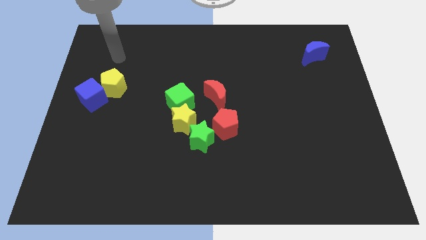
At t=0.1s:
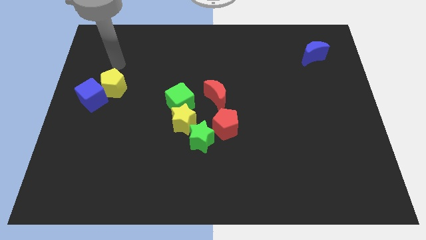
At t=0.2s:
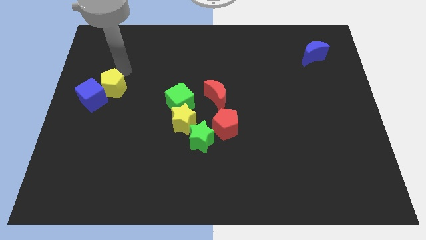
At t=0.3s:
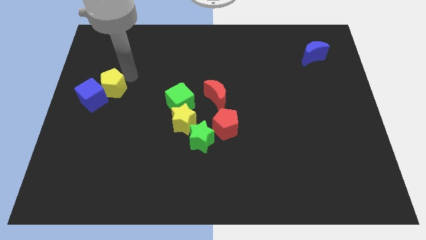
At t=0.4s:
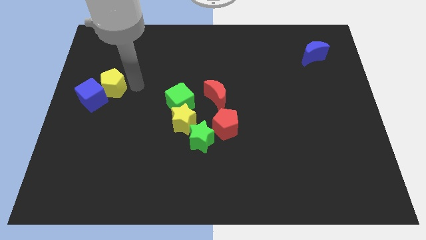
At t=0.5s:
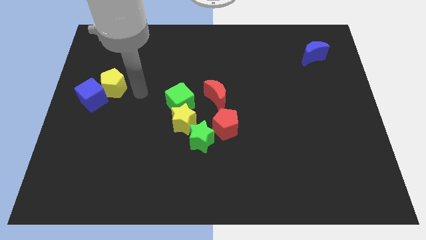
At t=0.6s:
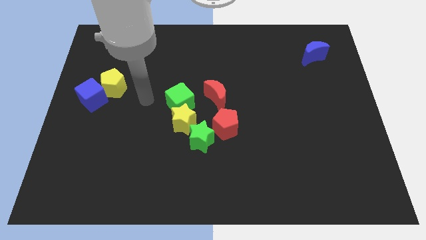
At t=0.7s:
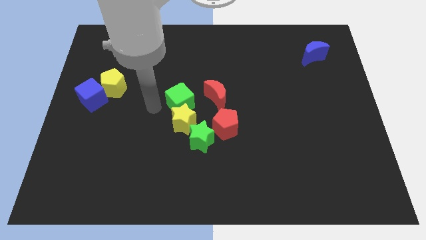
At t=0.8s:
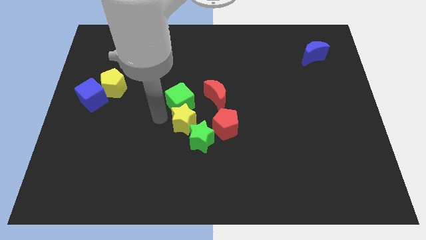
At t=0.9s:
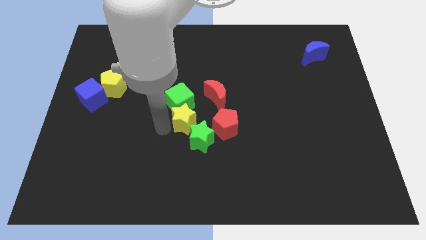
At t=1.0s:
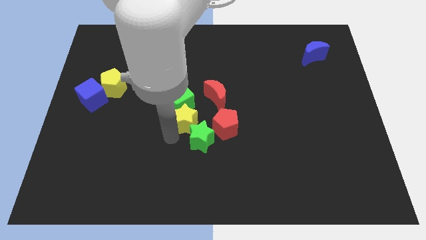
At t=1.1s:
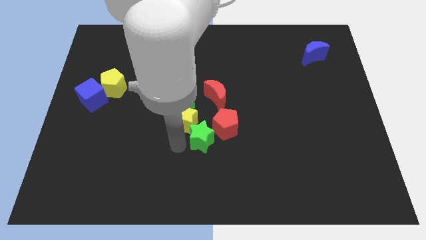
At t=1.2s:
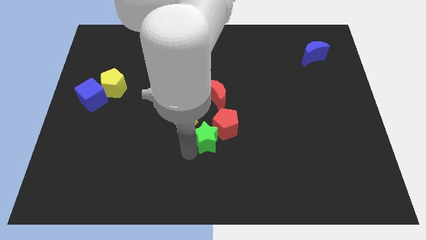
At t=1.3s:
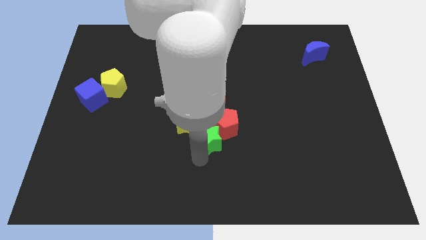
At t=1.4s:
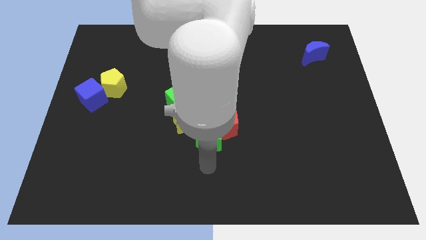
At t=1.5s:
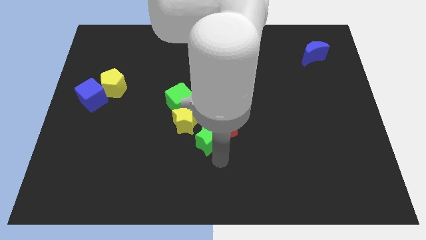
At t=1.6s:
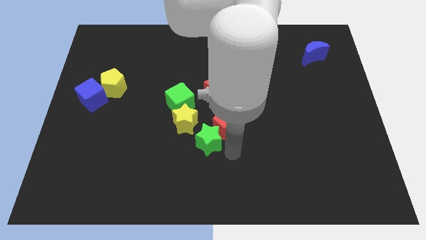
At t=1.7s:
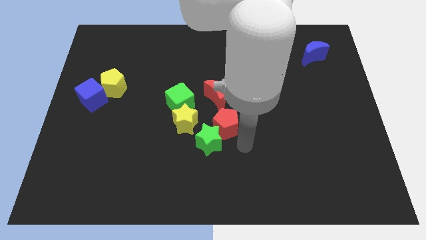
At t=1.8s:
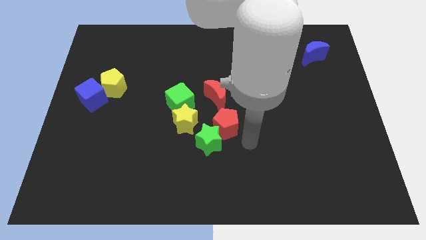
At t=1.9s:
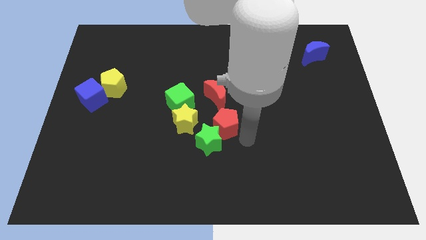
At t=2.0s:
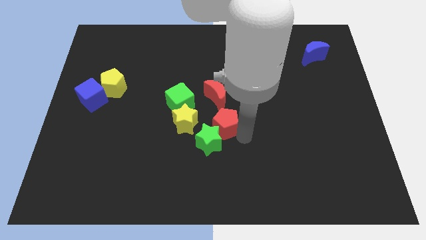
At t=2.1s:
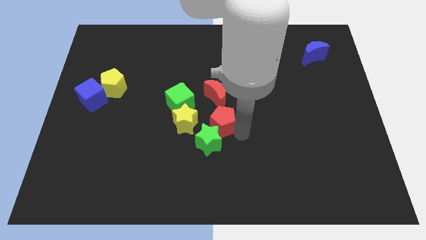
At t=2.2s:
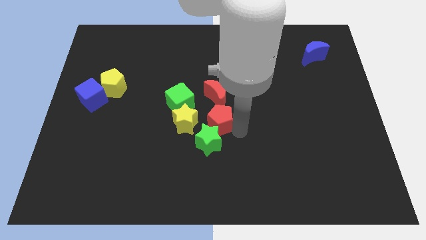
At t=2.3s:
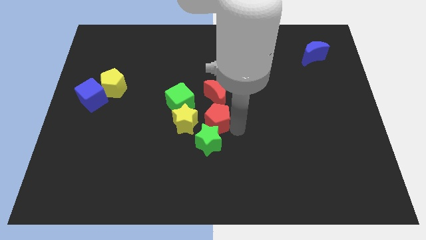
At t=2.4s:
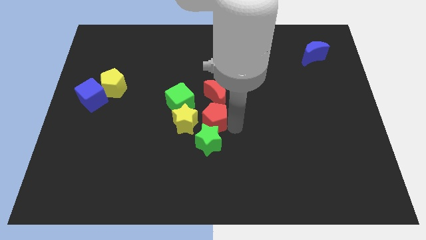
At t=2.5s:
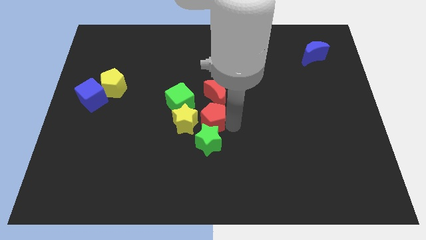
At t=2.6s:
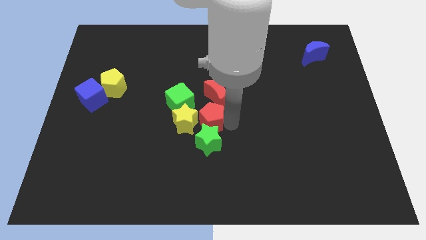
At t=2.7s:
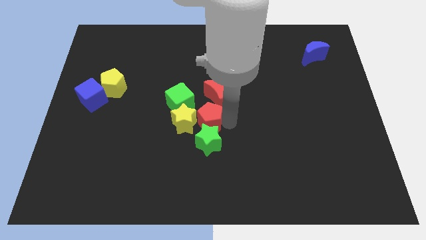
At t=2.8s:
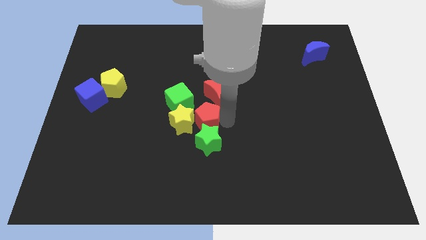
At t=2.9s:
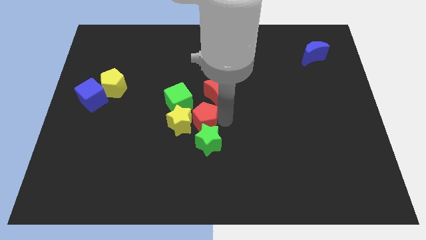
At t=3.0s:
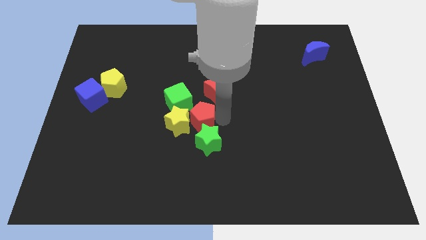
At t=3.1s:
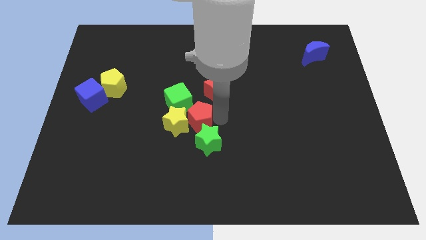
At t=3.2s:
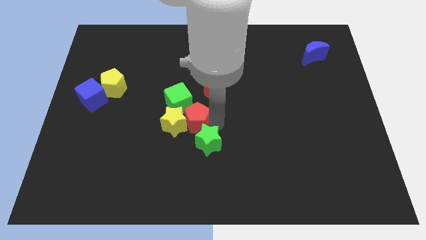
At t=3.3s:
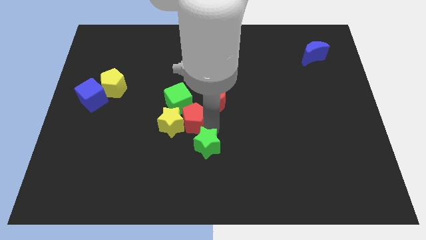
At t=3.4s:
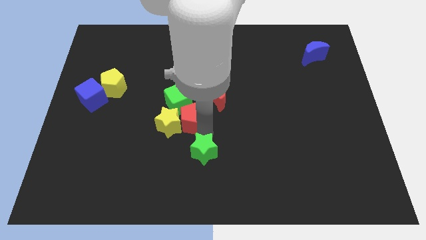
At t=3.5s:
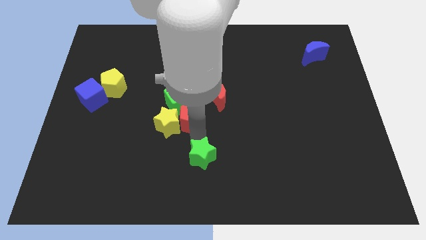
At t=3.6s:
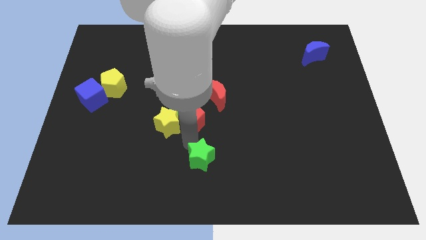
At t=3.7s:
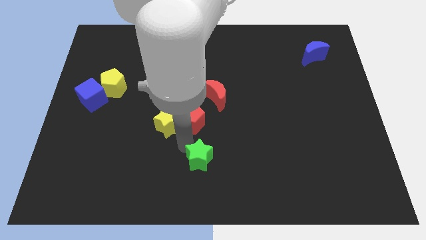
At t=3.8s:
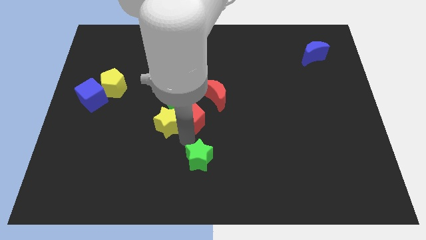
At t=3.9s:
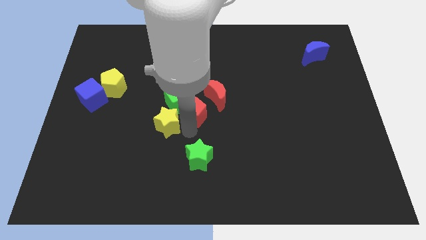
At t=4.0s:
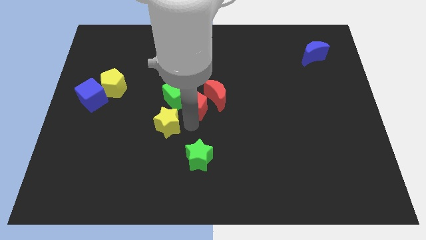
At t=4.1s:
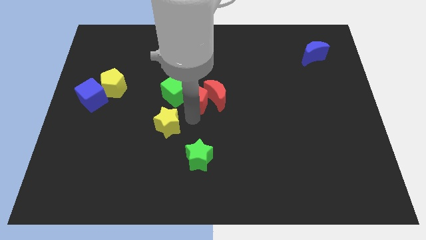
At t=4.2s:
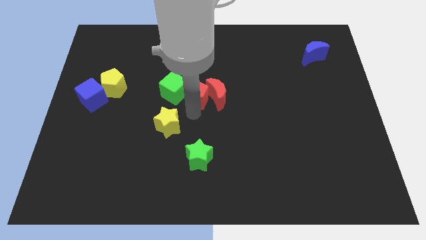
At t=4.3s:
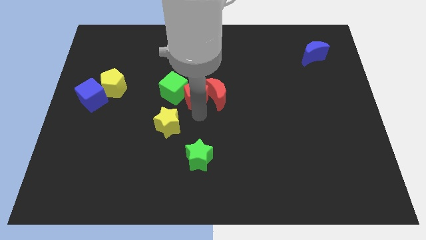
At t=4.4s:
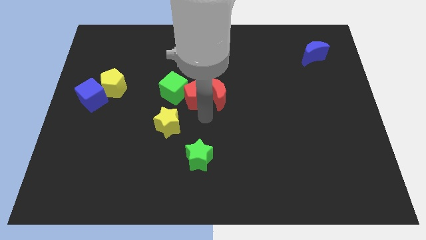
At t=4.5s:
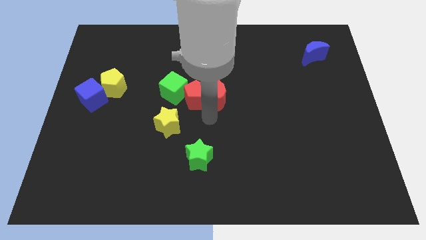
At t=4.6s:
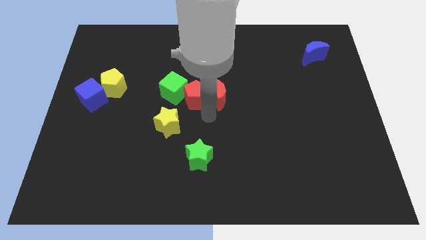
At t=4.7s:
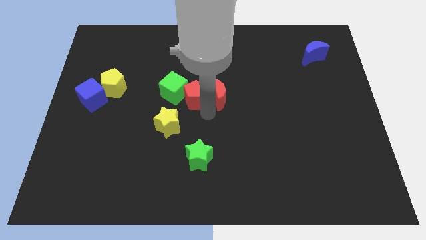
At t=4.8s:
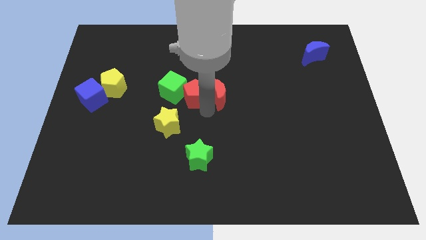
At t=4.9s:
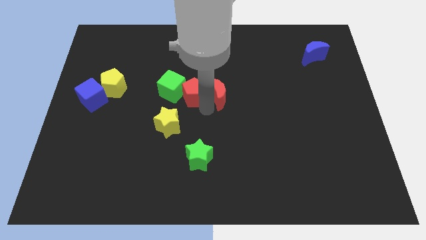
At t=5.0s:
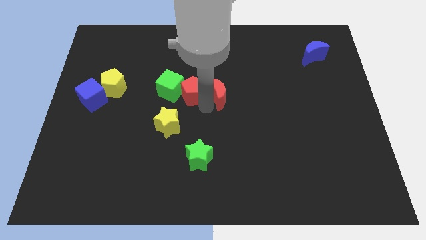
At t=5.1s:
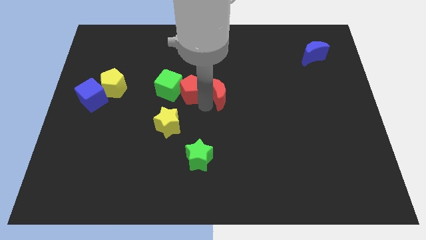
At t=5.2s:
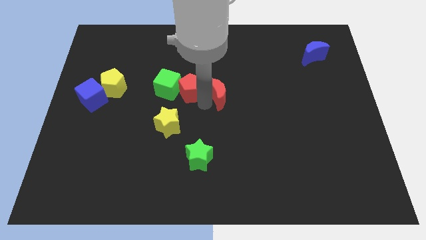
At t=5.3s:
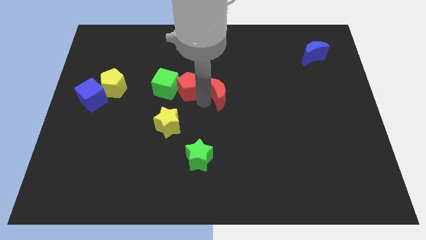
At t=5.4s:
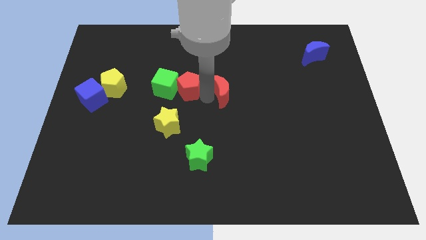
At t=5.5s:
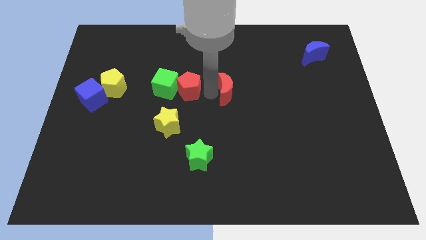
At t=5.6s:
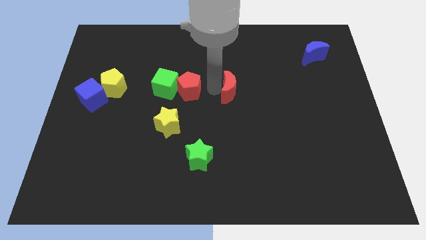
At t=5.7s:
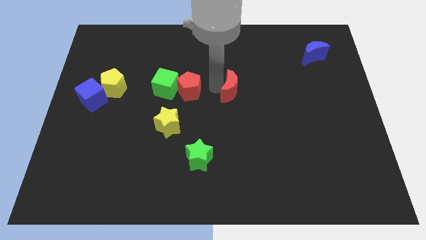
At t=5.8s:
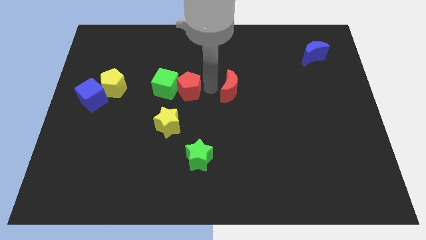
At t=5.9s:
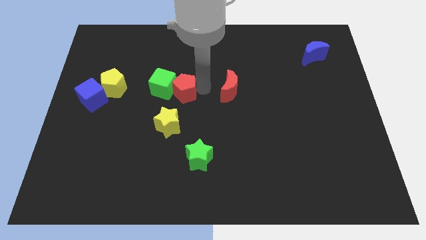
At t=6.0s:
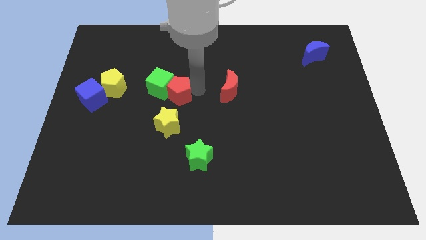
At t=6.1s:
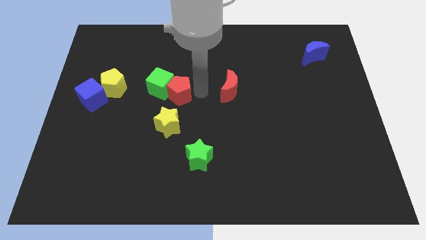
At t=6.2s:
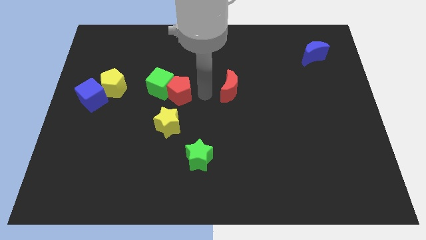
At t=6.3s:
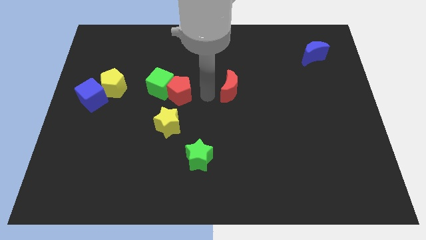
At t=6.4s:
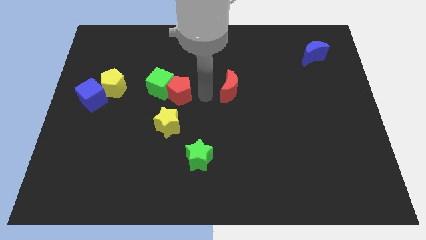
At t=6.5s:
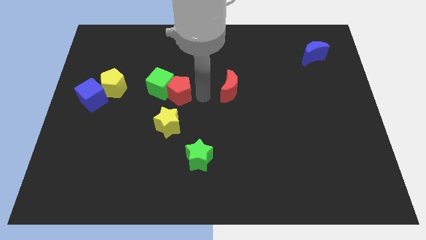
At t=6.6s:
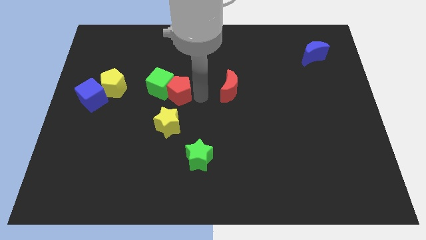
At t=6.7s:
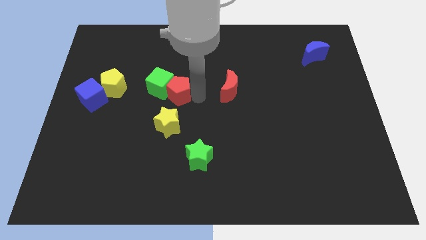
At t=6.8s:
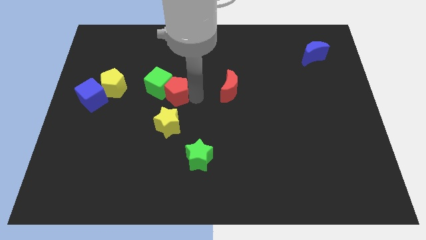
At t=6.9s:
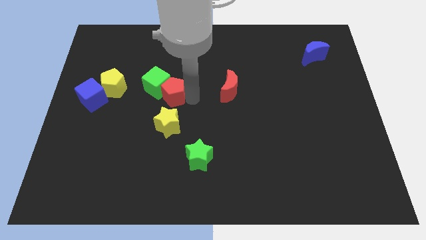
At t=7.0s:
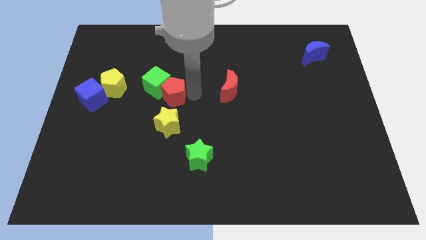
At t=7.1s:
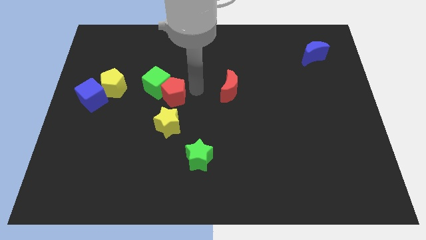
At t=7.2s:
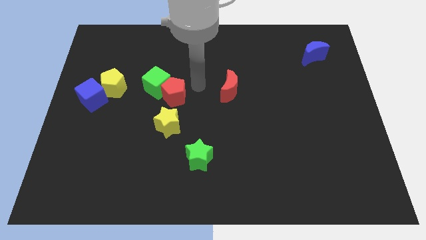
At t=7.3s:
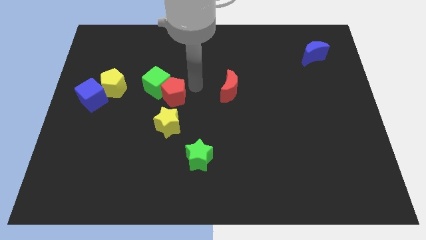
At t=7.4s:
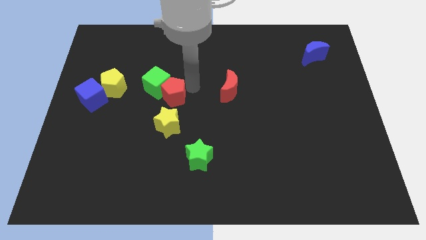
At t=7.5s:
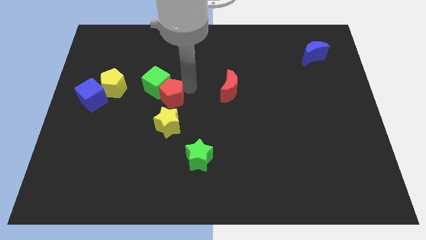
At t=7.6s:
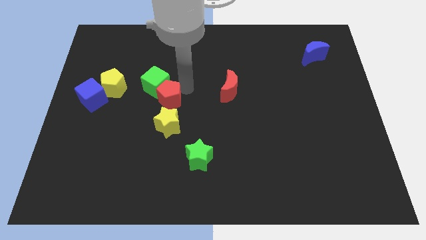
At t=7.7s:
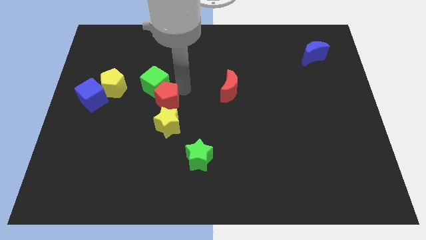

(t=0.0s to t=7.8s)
put the red pentagon to the top left of the yellow star

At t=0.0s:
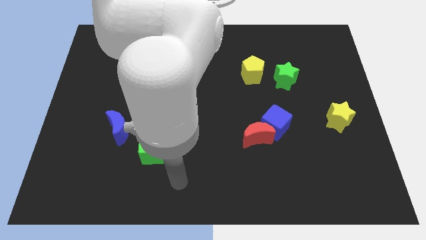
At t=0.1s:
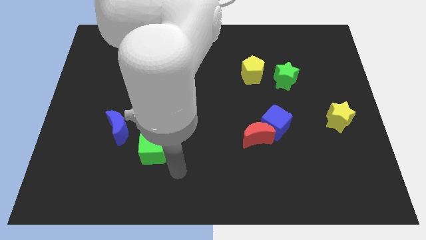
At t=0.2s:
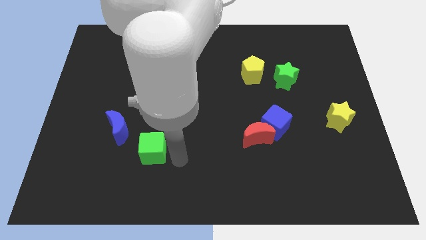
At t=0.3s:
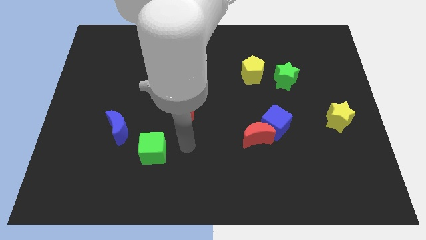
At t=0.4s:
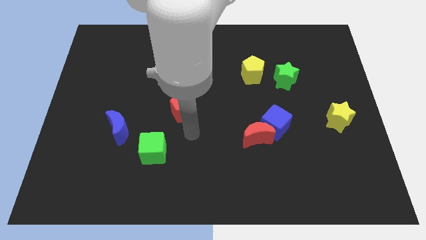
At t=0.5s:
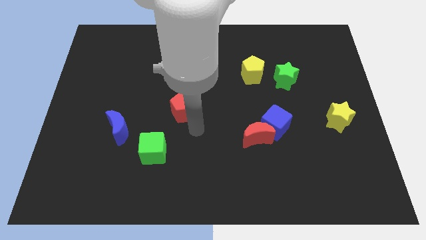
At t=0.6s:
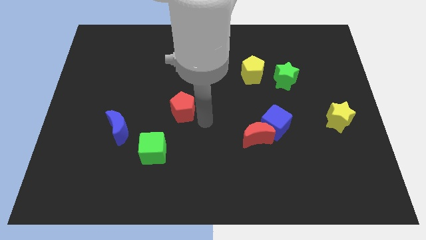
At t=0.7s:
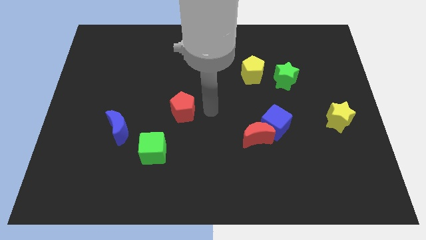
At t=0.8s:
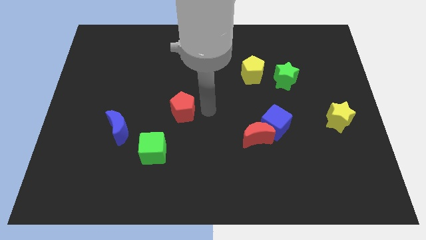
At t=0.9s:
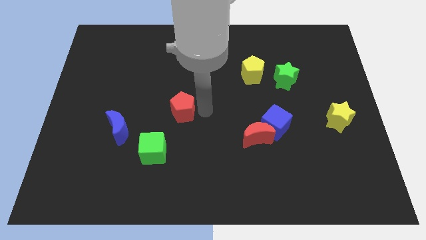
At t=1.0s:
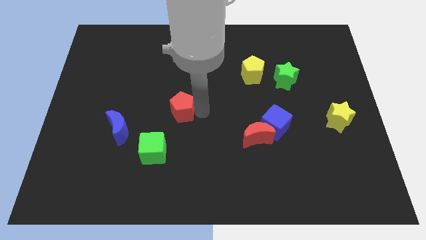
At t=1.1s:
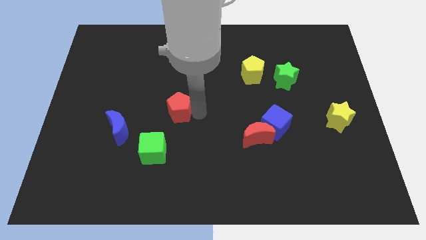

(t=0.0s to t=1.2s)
put the red pentagon to the top of the green cube
